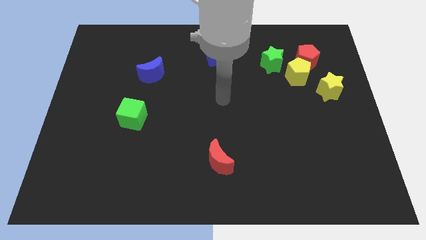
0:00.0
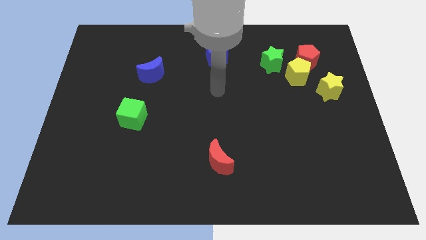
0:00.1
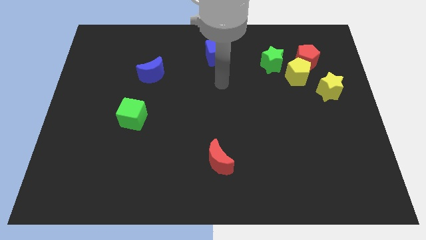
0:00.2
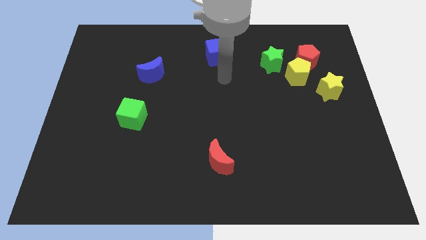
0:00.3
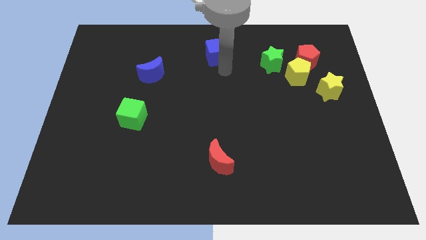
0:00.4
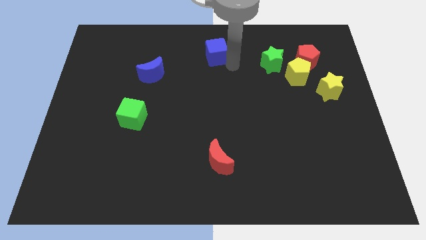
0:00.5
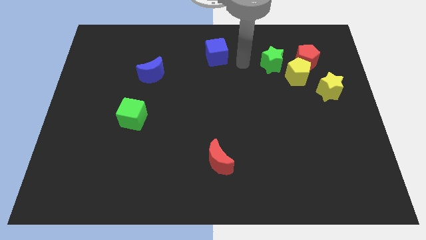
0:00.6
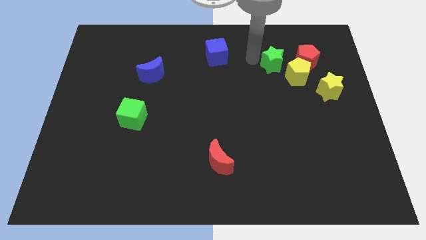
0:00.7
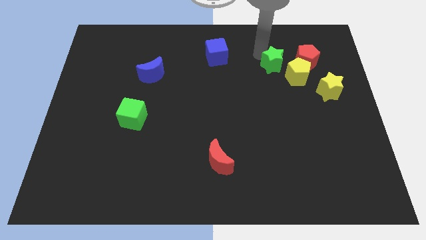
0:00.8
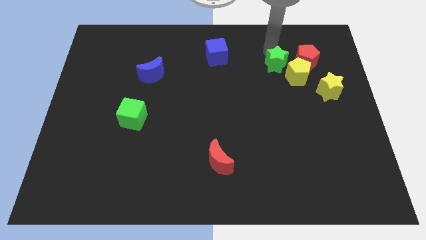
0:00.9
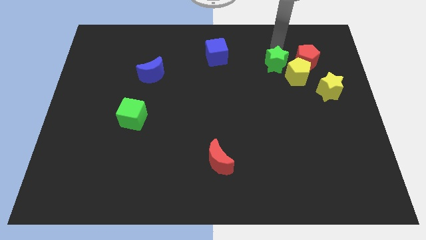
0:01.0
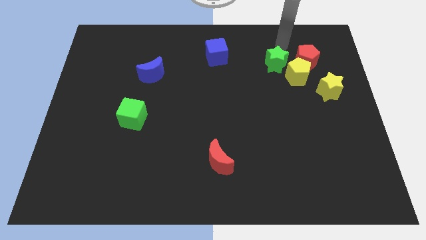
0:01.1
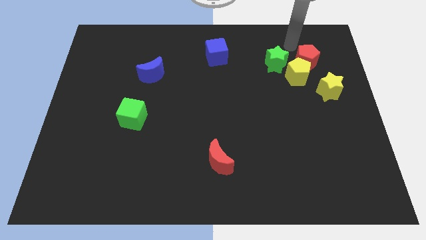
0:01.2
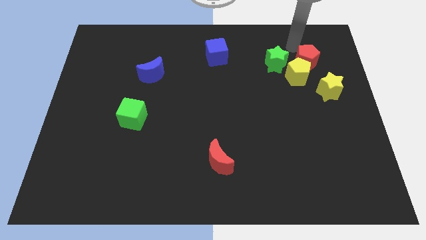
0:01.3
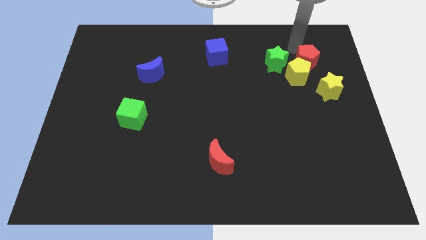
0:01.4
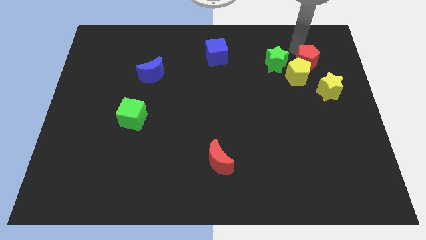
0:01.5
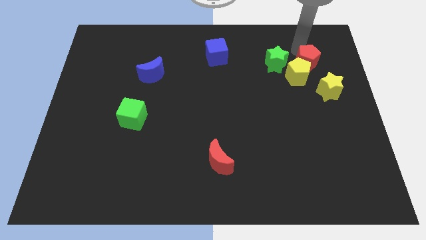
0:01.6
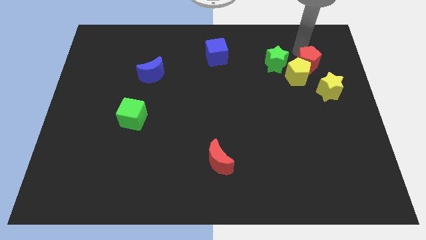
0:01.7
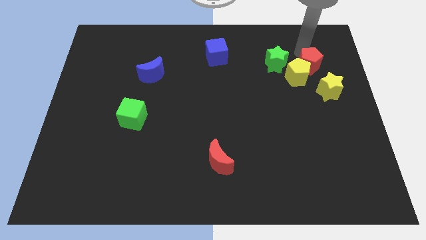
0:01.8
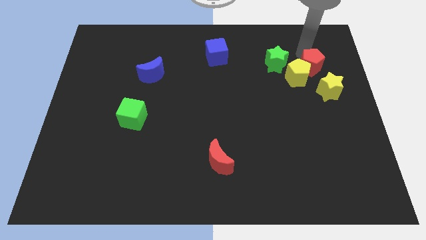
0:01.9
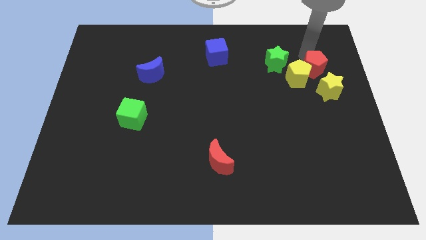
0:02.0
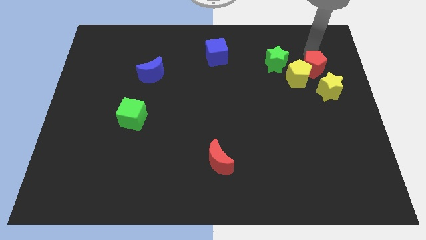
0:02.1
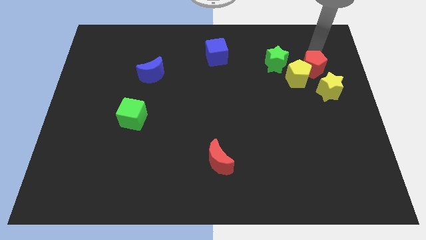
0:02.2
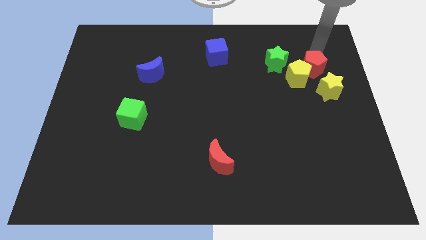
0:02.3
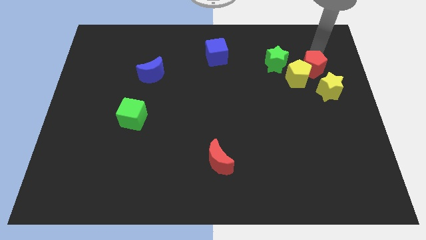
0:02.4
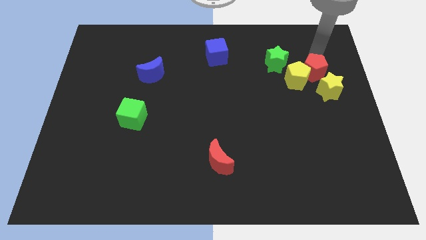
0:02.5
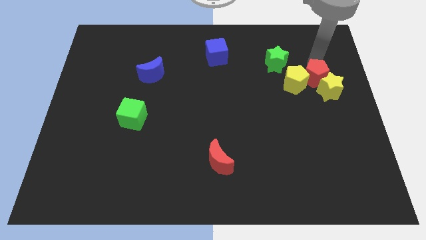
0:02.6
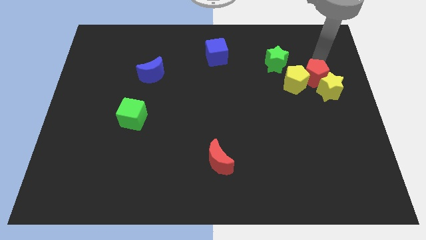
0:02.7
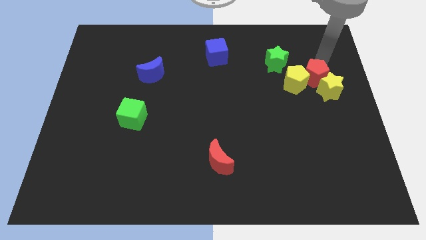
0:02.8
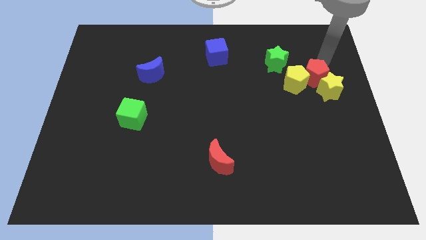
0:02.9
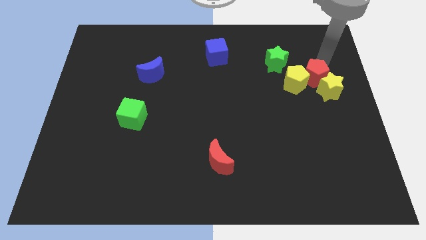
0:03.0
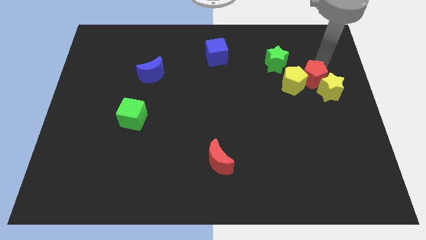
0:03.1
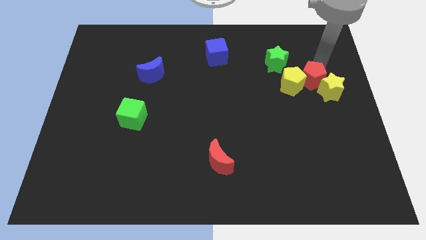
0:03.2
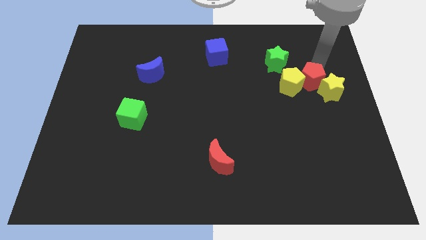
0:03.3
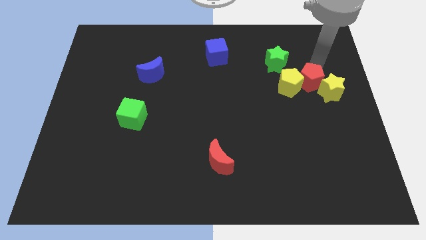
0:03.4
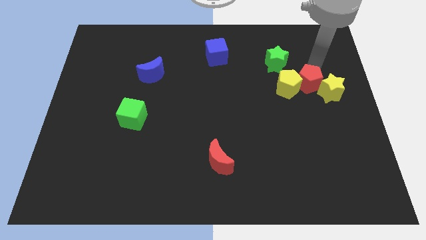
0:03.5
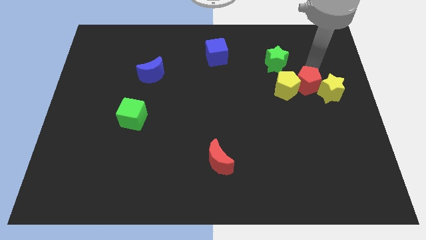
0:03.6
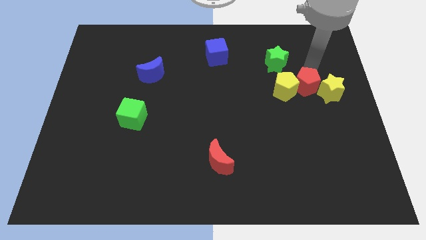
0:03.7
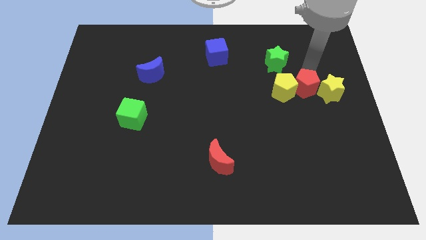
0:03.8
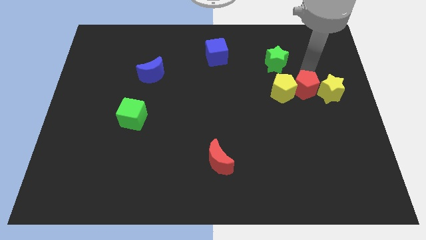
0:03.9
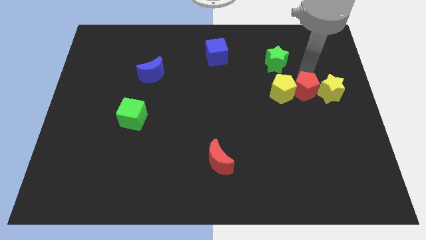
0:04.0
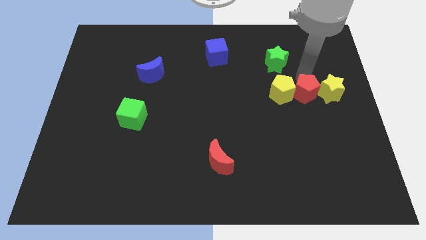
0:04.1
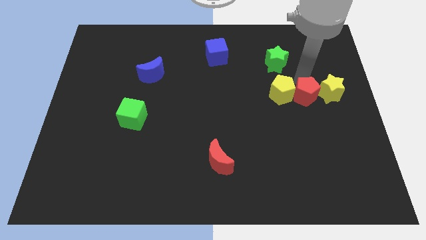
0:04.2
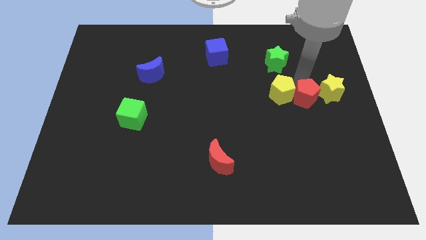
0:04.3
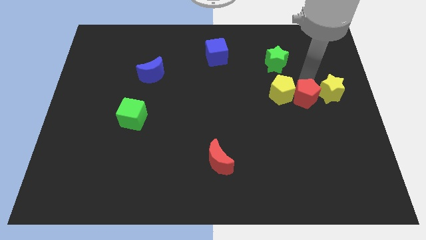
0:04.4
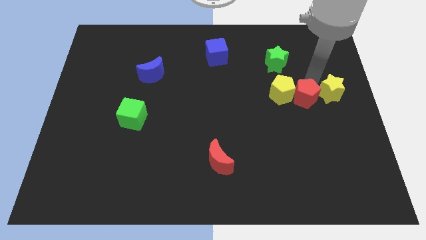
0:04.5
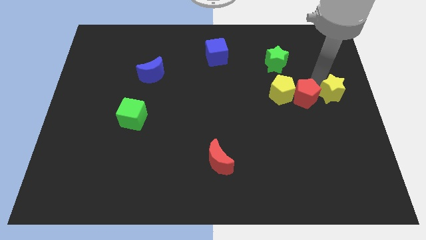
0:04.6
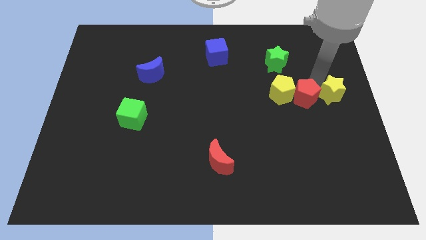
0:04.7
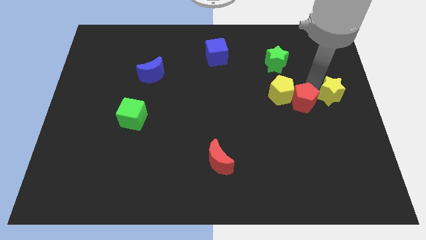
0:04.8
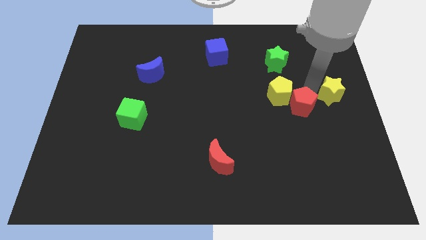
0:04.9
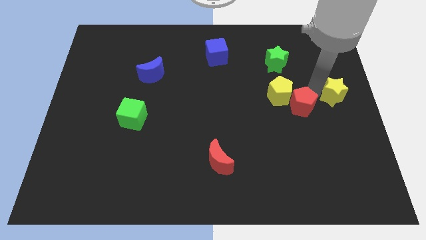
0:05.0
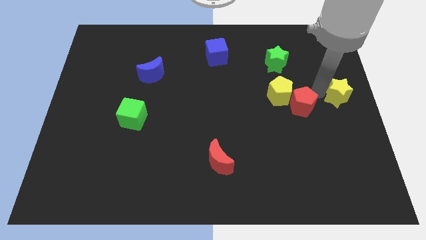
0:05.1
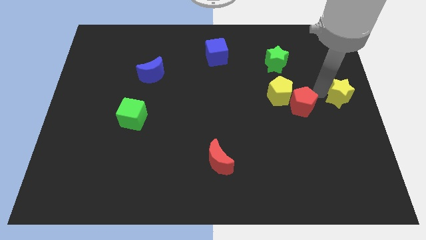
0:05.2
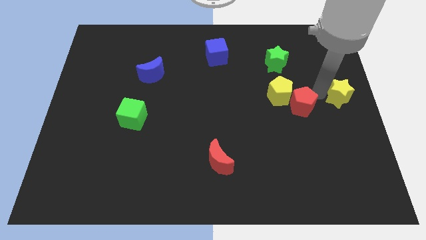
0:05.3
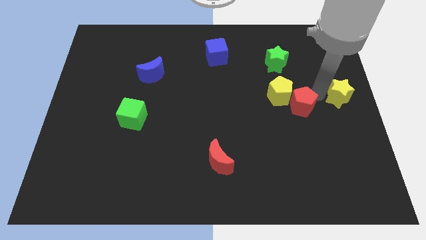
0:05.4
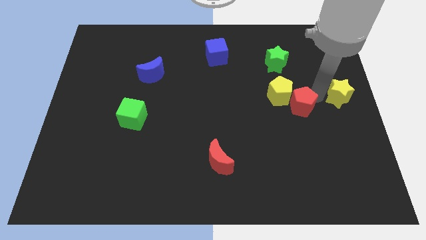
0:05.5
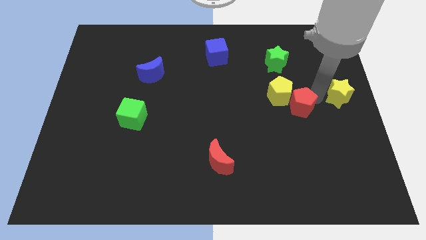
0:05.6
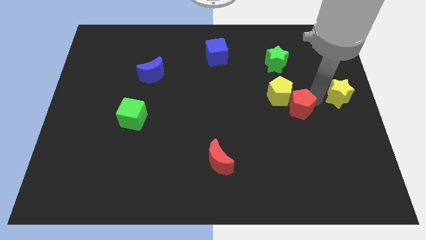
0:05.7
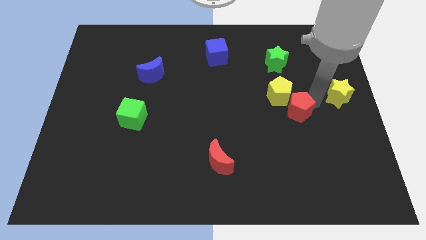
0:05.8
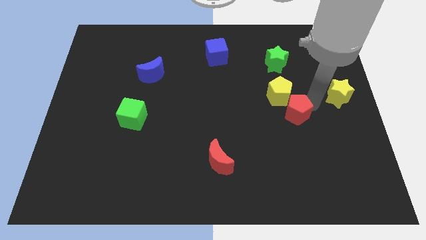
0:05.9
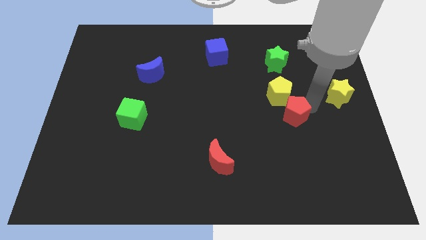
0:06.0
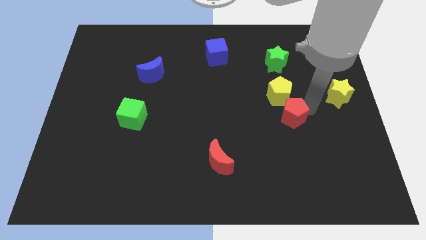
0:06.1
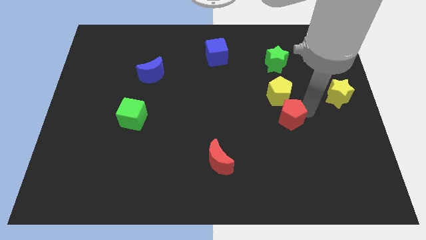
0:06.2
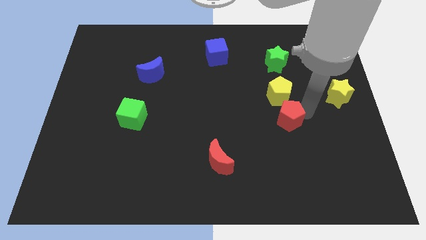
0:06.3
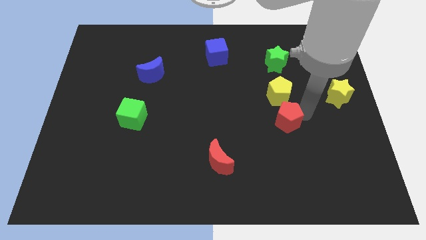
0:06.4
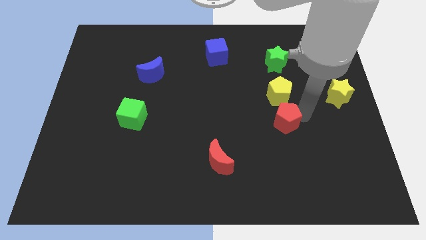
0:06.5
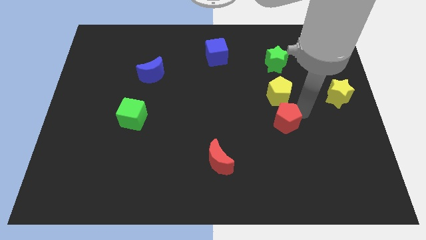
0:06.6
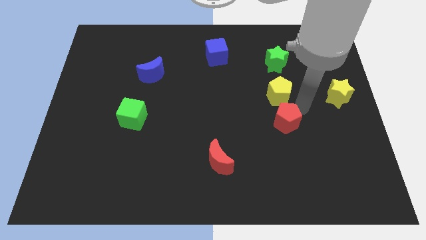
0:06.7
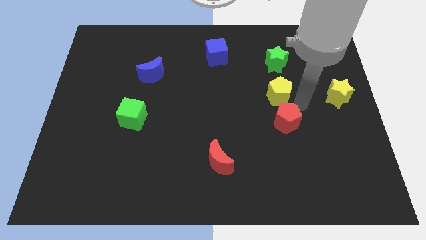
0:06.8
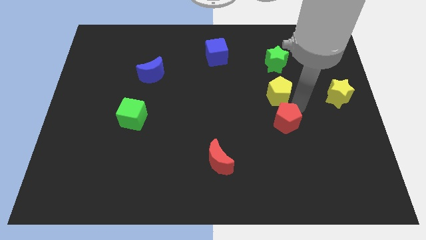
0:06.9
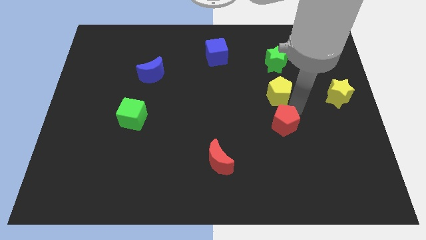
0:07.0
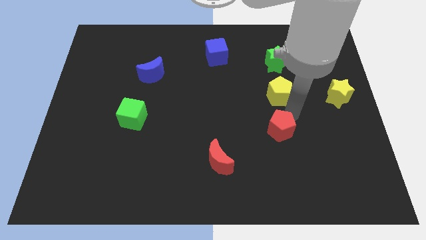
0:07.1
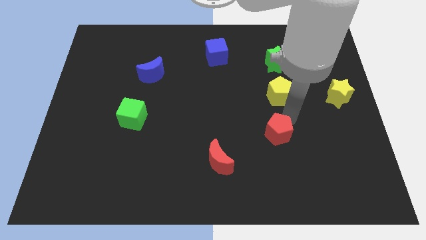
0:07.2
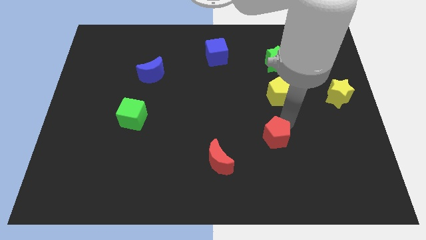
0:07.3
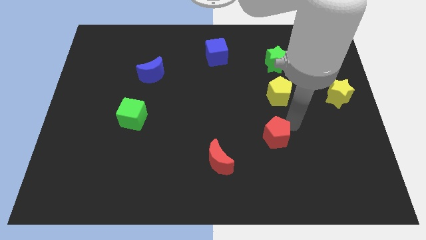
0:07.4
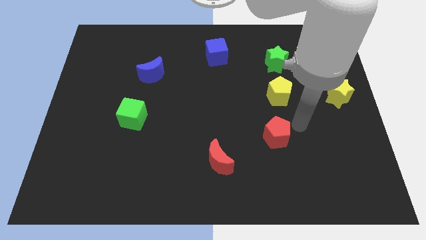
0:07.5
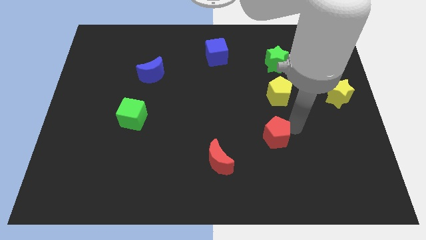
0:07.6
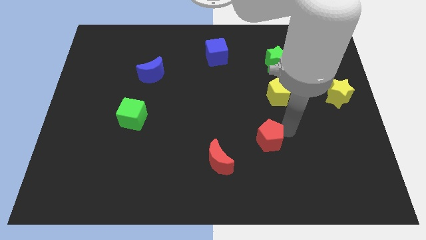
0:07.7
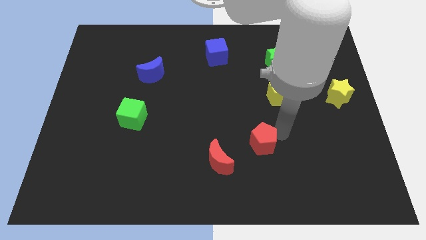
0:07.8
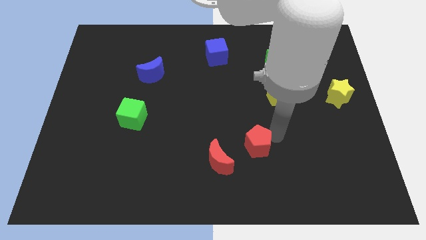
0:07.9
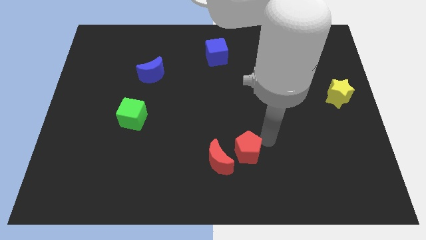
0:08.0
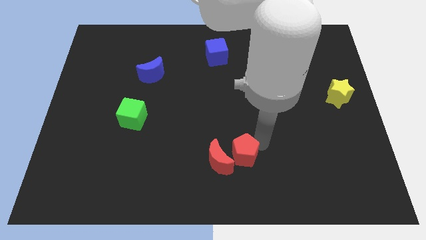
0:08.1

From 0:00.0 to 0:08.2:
move the red pentagon to the red moon
